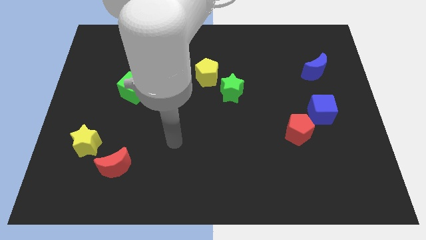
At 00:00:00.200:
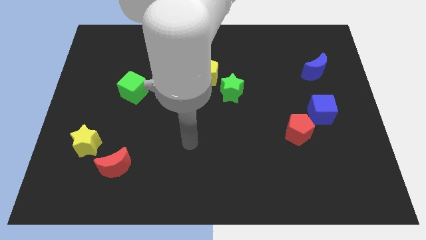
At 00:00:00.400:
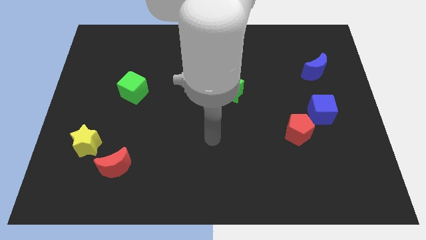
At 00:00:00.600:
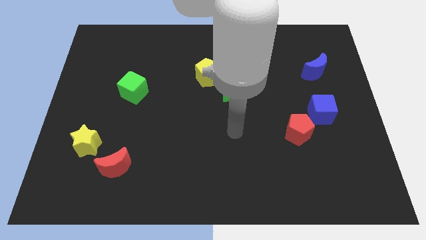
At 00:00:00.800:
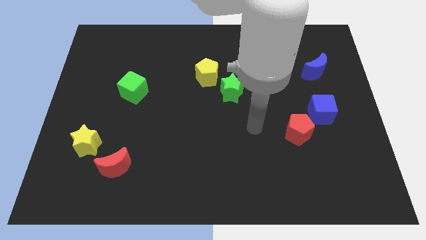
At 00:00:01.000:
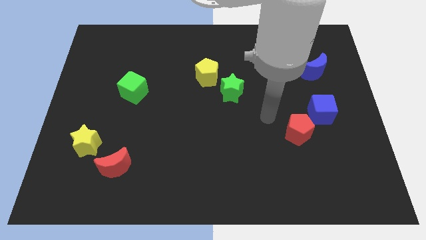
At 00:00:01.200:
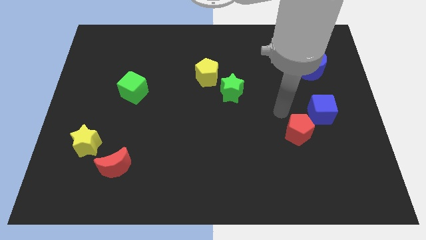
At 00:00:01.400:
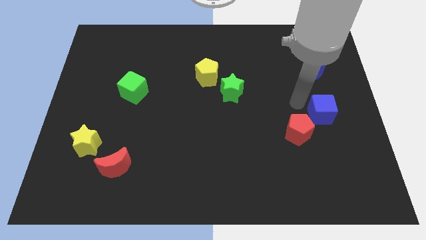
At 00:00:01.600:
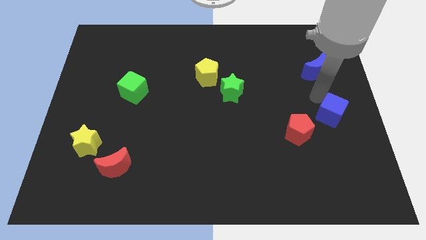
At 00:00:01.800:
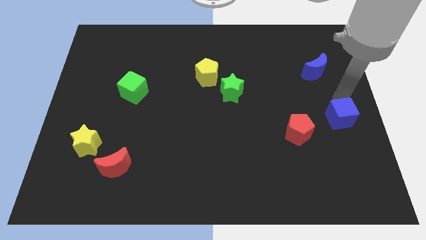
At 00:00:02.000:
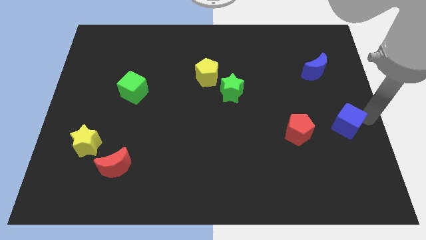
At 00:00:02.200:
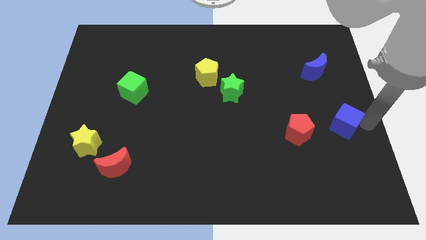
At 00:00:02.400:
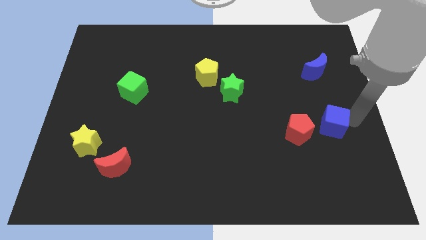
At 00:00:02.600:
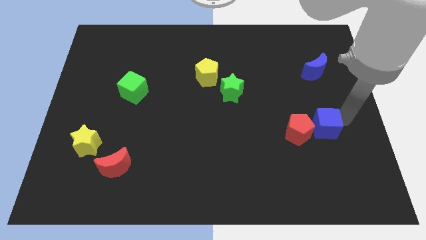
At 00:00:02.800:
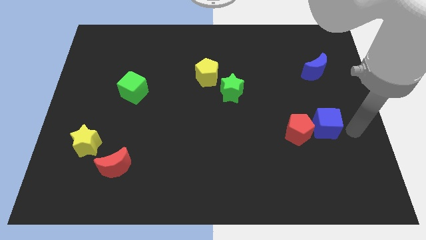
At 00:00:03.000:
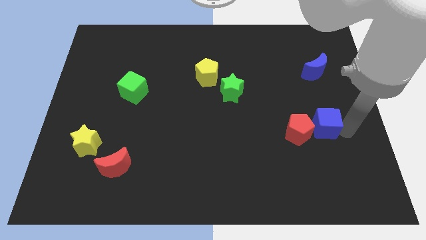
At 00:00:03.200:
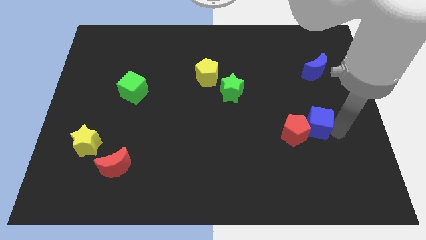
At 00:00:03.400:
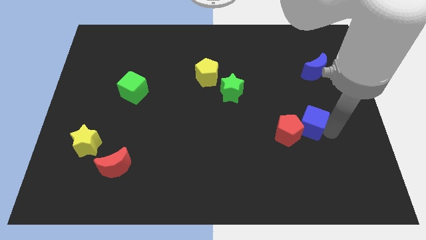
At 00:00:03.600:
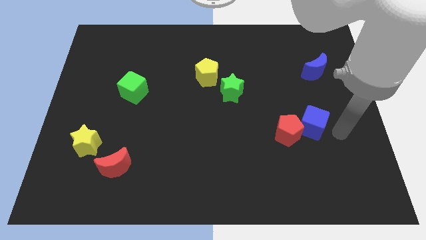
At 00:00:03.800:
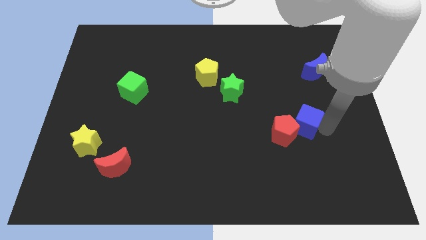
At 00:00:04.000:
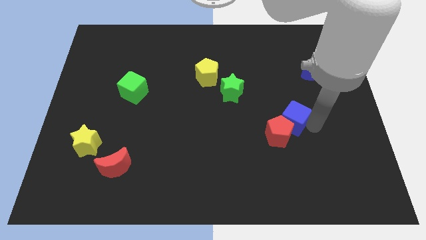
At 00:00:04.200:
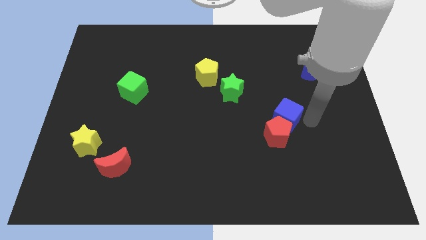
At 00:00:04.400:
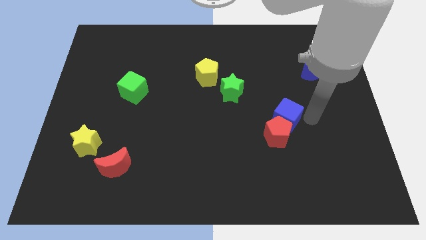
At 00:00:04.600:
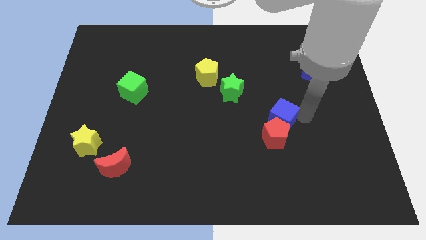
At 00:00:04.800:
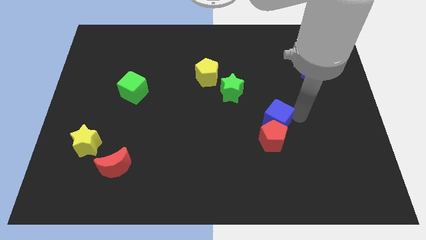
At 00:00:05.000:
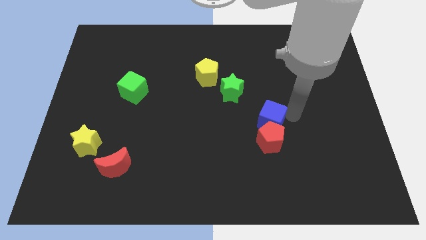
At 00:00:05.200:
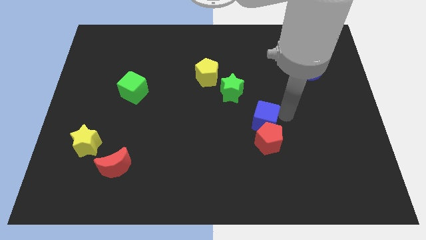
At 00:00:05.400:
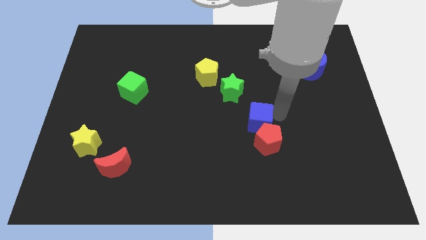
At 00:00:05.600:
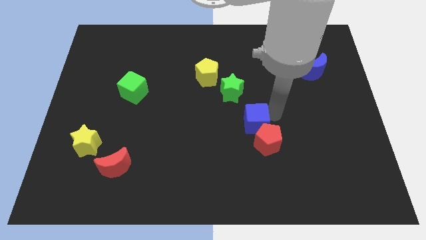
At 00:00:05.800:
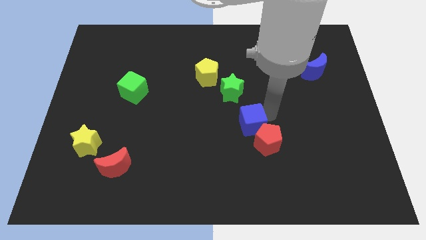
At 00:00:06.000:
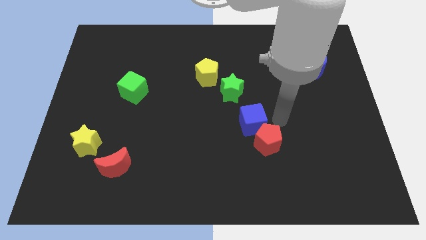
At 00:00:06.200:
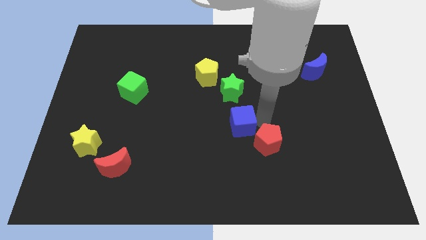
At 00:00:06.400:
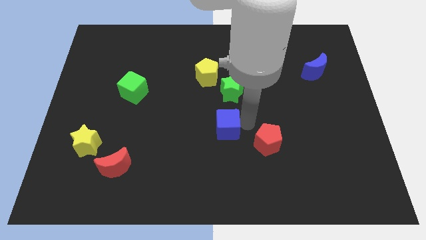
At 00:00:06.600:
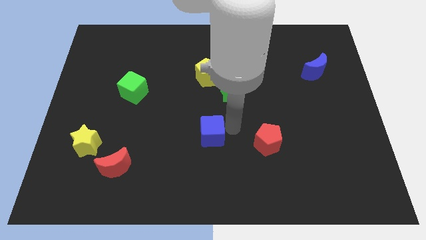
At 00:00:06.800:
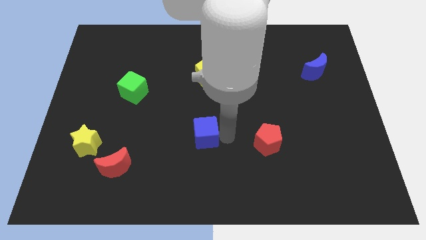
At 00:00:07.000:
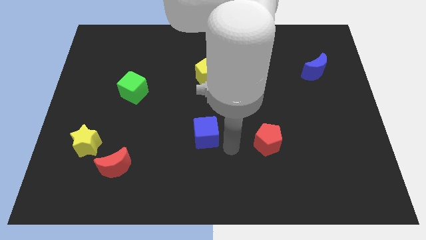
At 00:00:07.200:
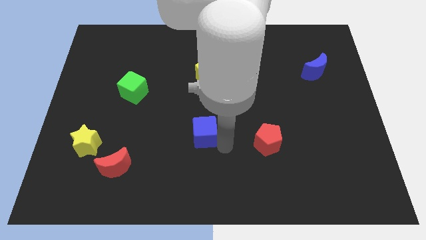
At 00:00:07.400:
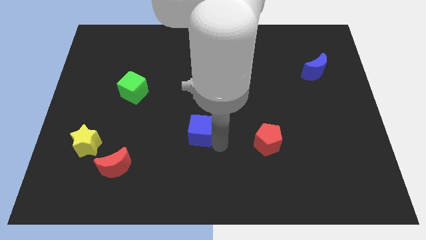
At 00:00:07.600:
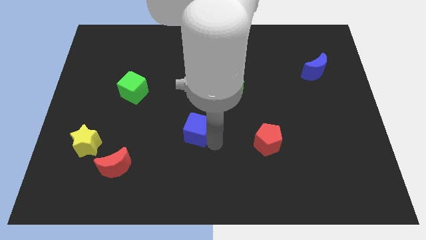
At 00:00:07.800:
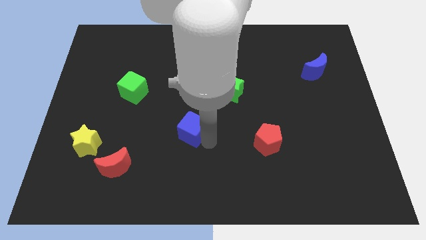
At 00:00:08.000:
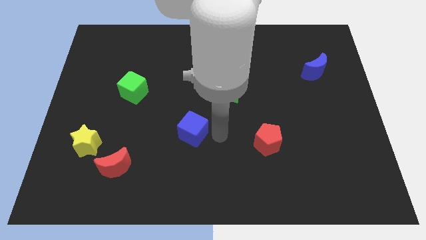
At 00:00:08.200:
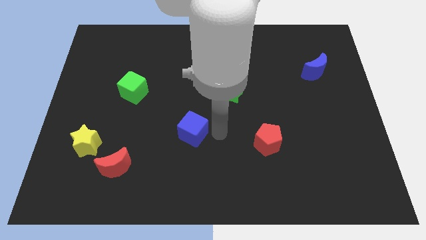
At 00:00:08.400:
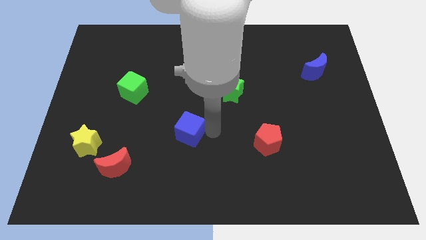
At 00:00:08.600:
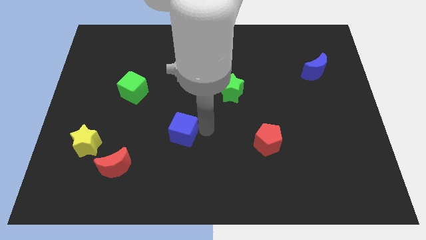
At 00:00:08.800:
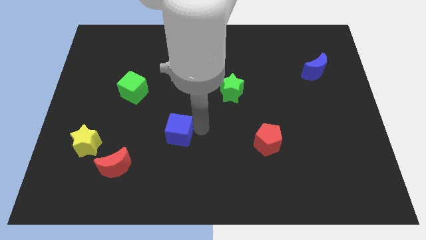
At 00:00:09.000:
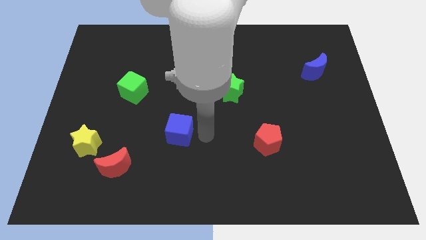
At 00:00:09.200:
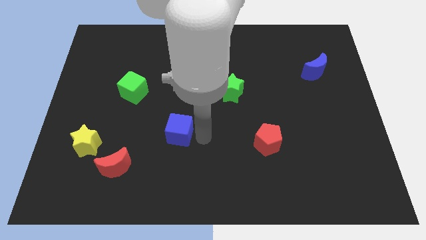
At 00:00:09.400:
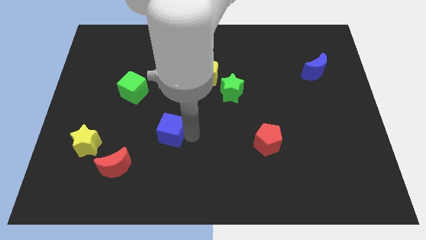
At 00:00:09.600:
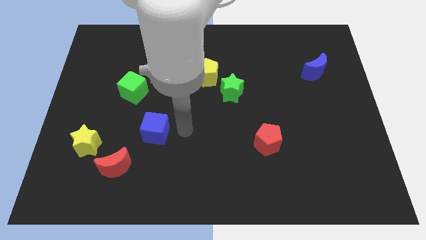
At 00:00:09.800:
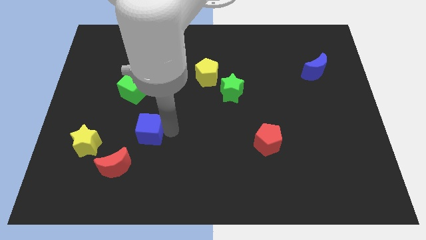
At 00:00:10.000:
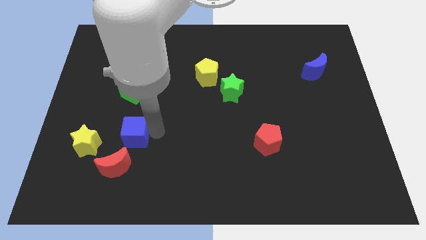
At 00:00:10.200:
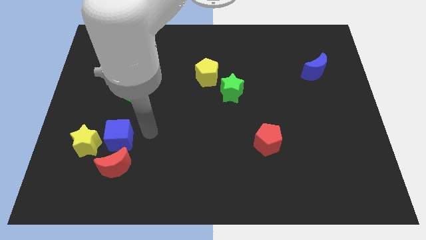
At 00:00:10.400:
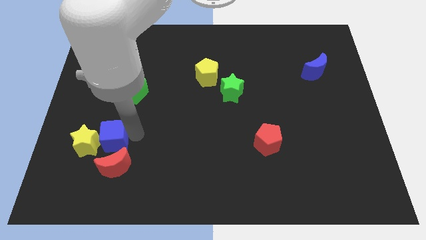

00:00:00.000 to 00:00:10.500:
push the blue cube next to the yellow star
